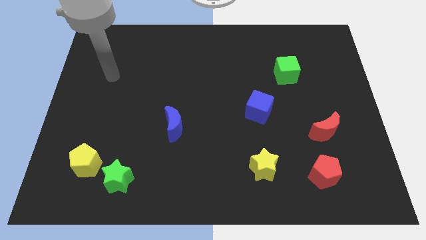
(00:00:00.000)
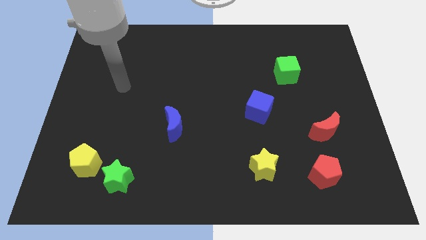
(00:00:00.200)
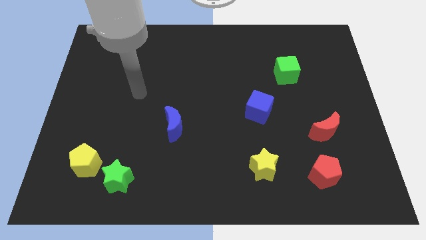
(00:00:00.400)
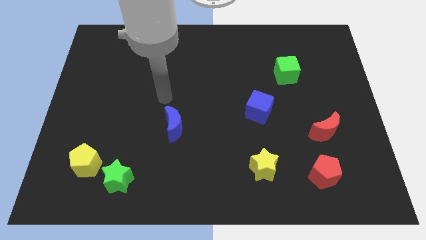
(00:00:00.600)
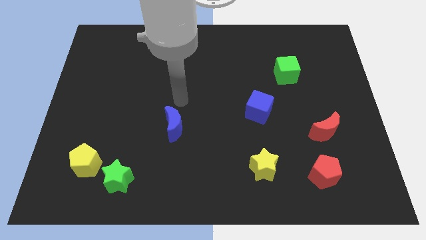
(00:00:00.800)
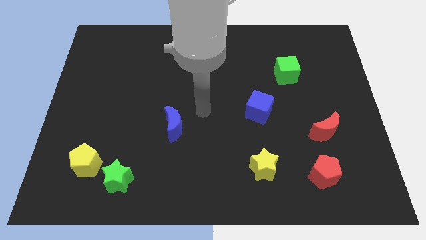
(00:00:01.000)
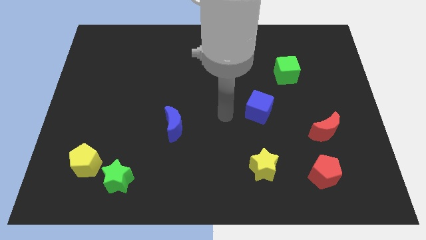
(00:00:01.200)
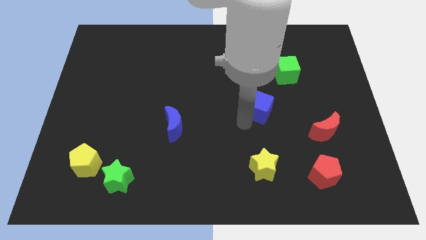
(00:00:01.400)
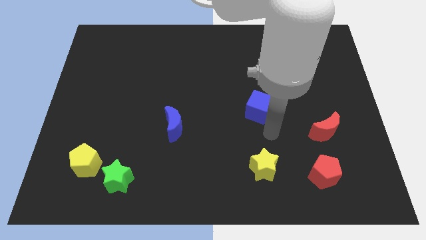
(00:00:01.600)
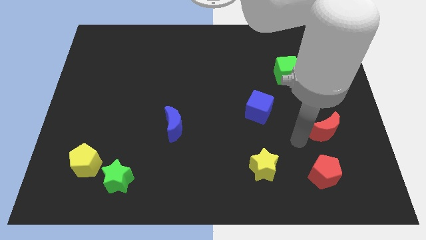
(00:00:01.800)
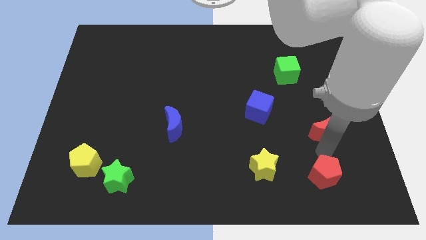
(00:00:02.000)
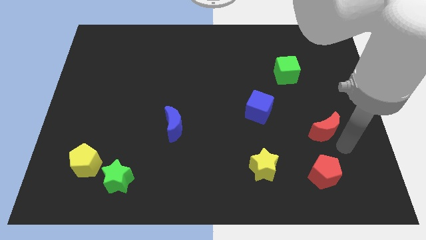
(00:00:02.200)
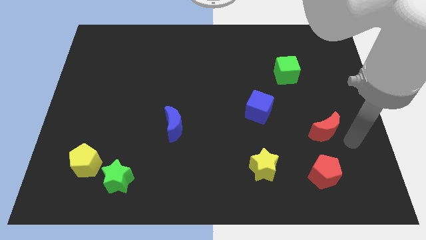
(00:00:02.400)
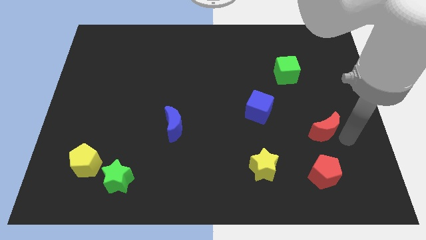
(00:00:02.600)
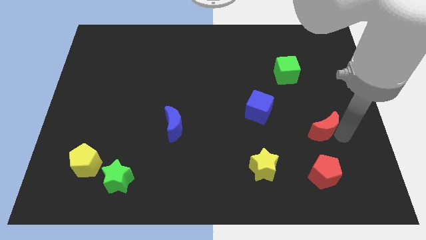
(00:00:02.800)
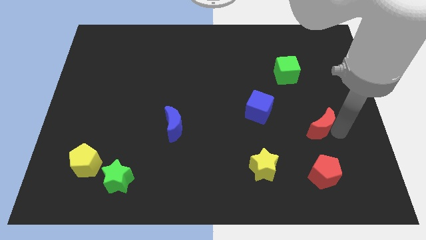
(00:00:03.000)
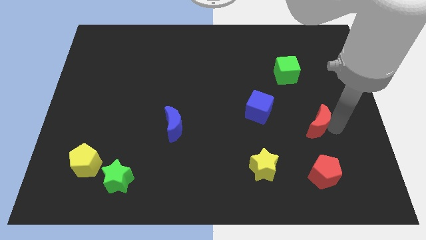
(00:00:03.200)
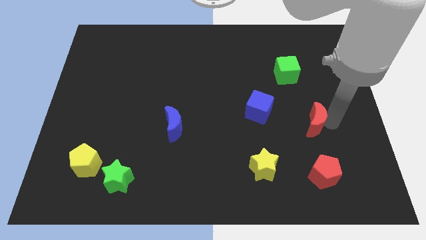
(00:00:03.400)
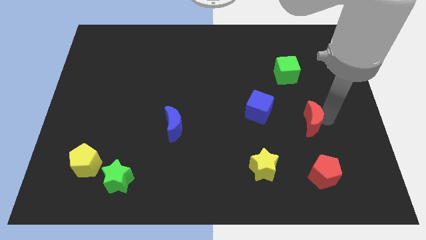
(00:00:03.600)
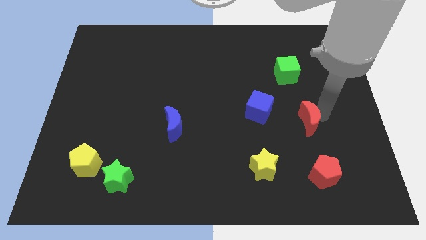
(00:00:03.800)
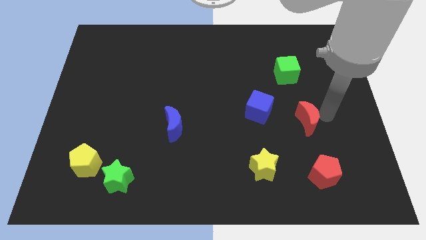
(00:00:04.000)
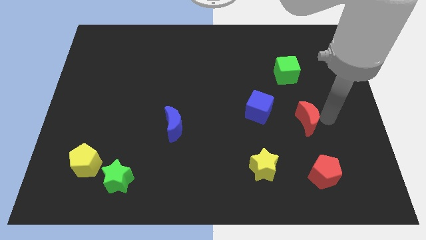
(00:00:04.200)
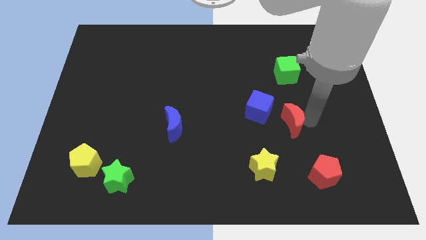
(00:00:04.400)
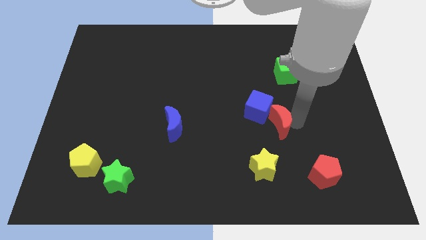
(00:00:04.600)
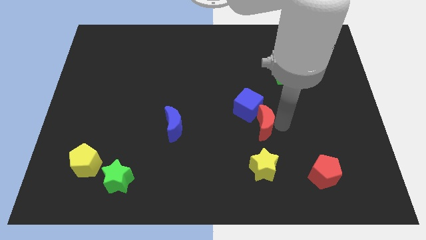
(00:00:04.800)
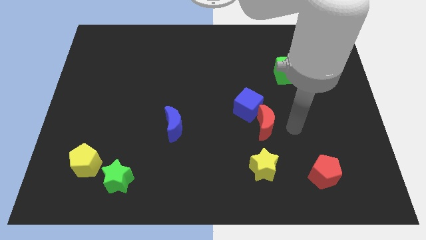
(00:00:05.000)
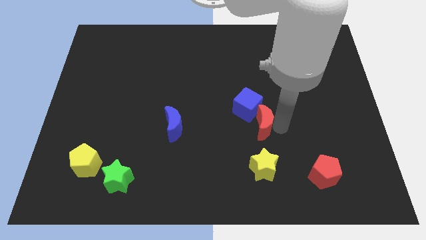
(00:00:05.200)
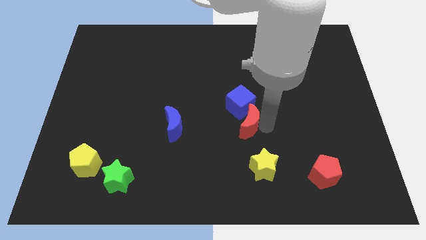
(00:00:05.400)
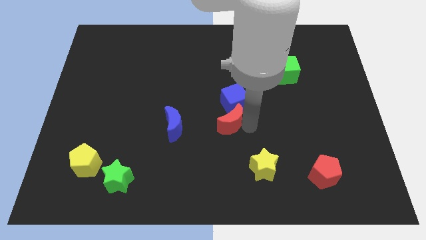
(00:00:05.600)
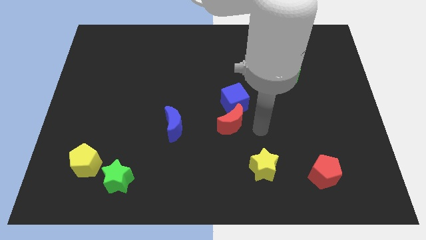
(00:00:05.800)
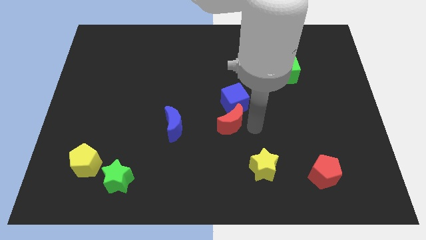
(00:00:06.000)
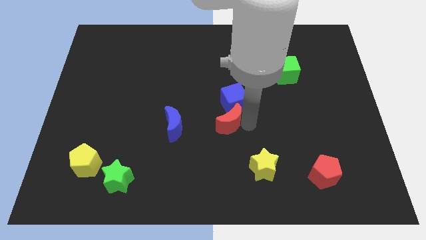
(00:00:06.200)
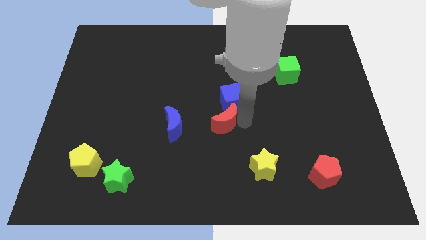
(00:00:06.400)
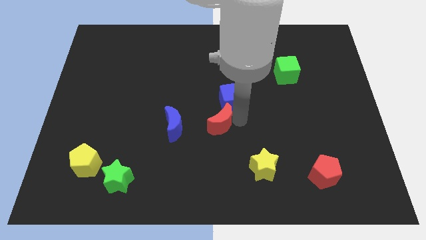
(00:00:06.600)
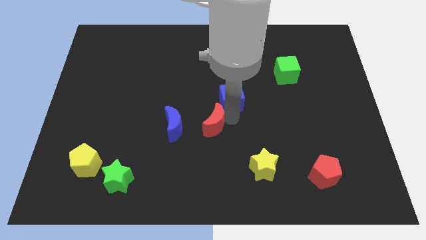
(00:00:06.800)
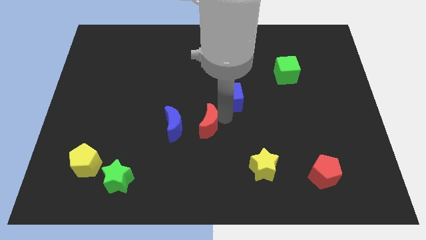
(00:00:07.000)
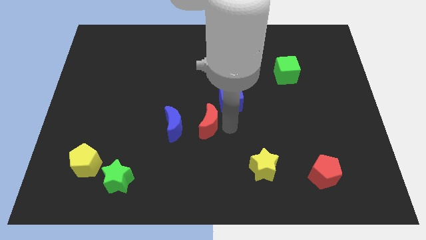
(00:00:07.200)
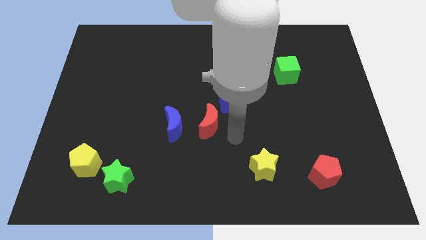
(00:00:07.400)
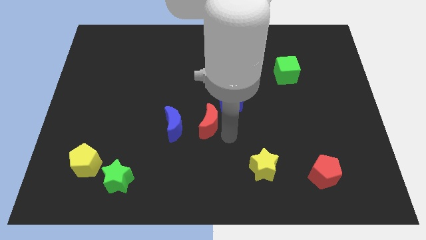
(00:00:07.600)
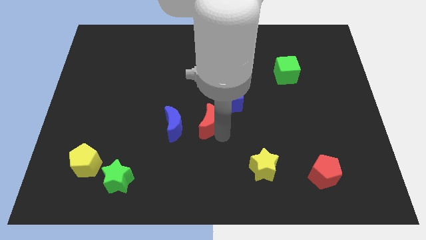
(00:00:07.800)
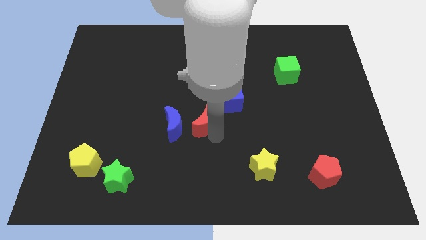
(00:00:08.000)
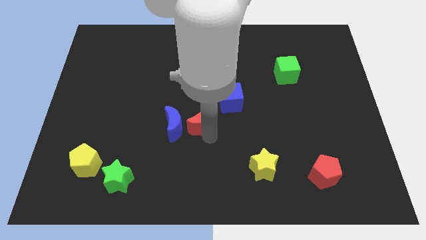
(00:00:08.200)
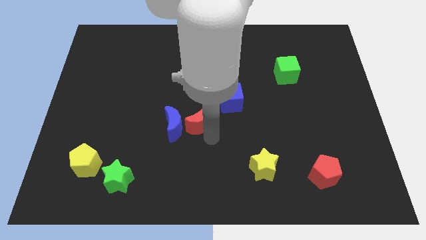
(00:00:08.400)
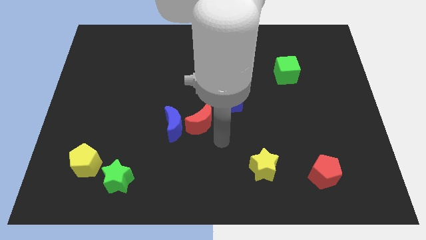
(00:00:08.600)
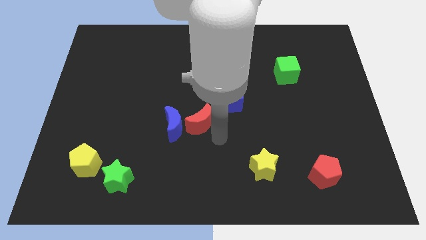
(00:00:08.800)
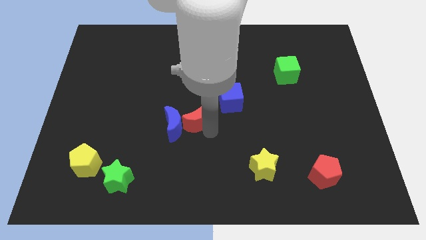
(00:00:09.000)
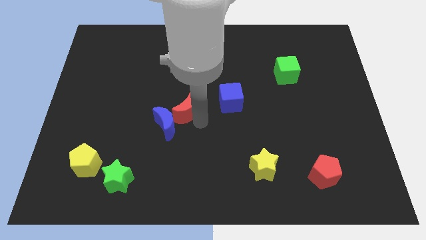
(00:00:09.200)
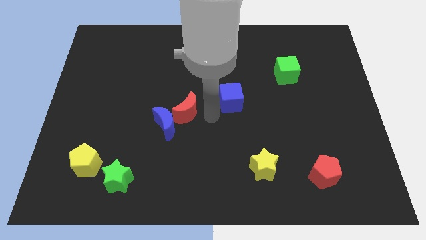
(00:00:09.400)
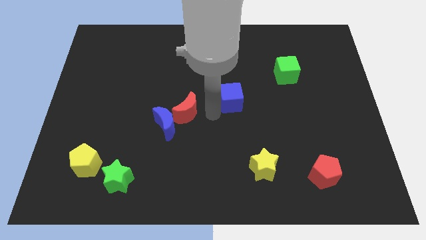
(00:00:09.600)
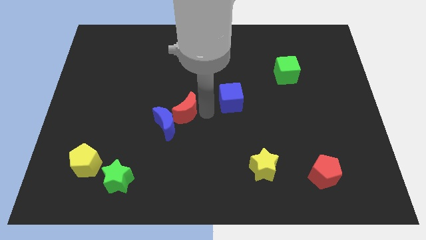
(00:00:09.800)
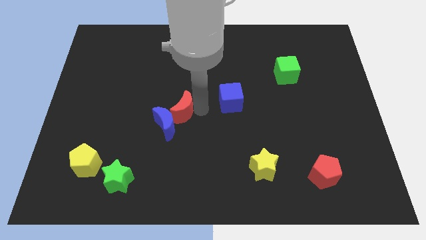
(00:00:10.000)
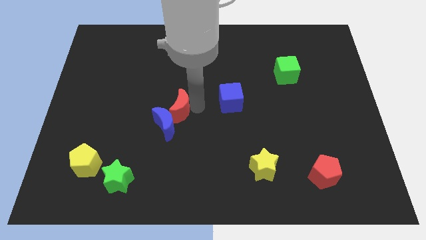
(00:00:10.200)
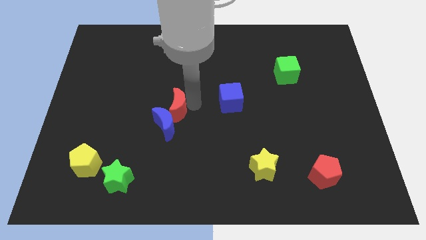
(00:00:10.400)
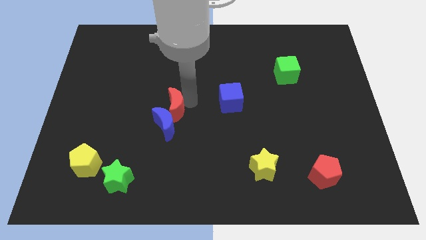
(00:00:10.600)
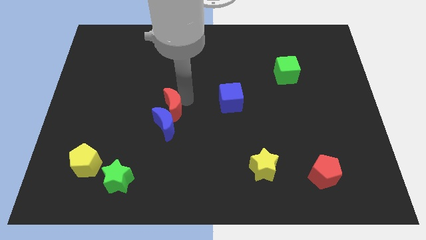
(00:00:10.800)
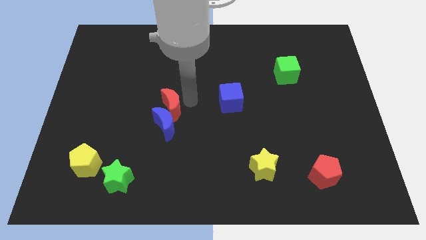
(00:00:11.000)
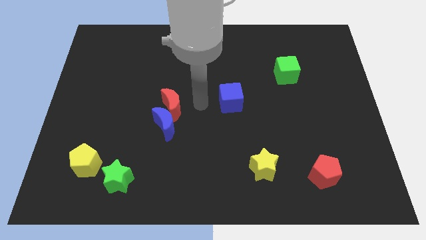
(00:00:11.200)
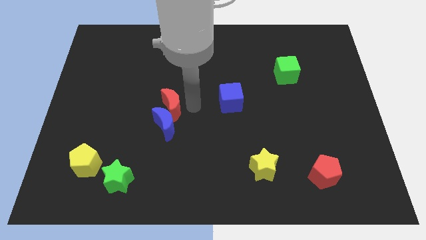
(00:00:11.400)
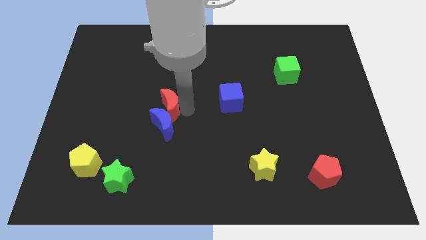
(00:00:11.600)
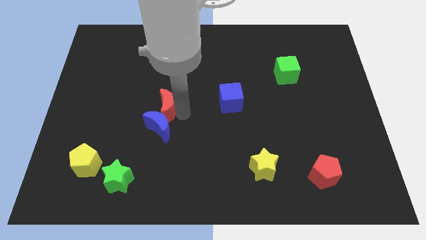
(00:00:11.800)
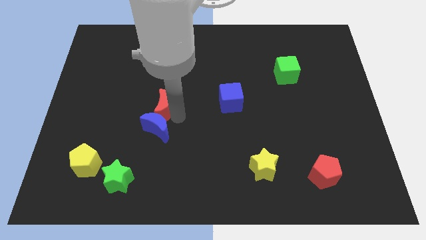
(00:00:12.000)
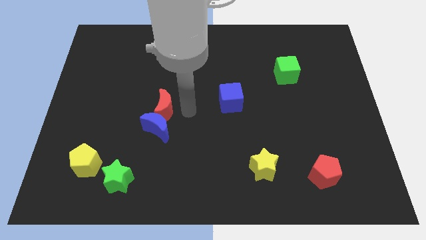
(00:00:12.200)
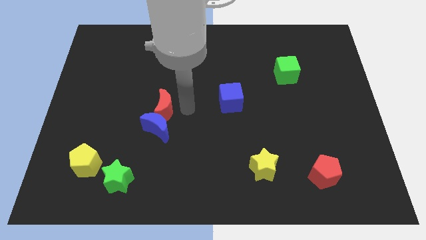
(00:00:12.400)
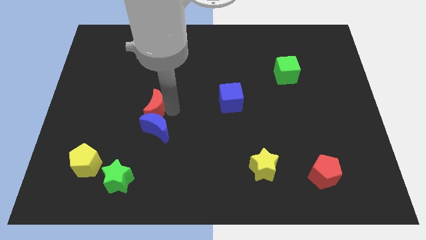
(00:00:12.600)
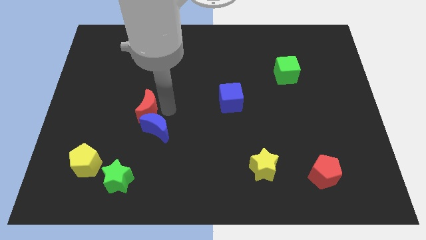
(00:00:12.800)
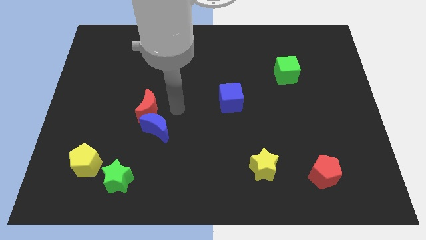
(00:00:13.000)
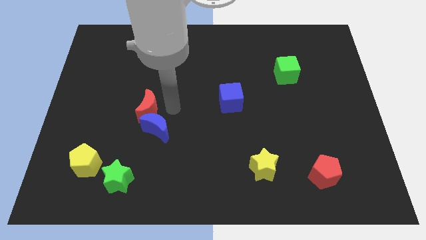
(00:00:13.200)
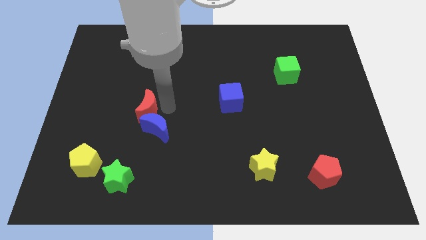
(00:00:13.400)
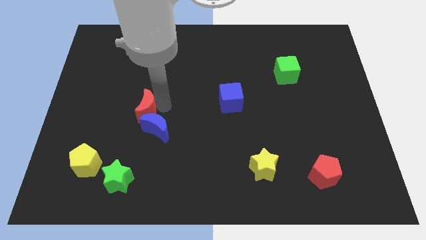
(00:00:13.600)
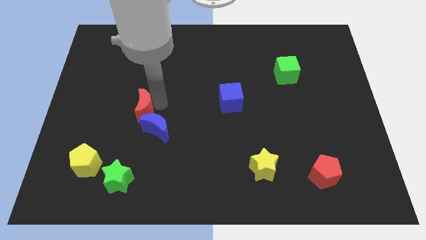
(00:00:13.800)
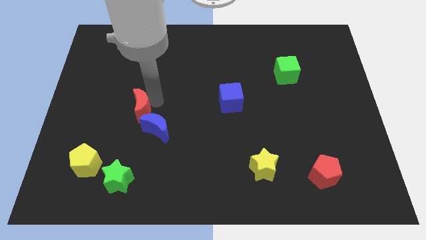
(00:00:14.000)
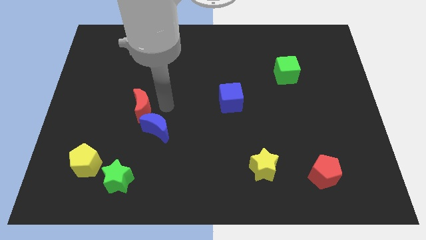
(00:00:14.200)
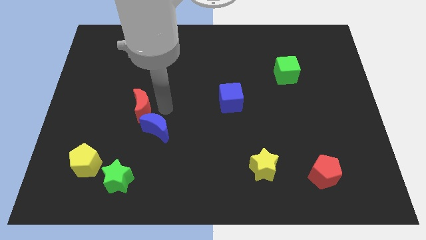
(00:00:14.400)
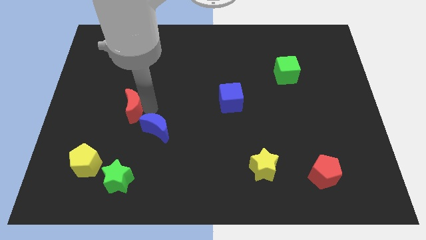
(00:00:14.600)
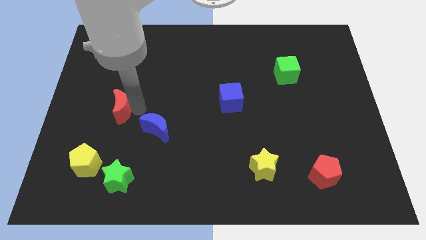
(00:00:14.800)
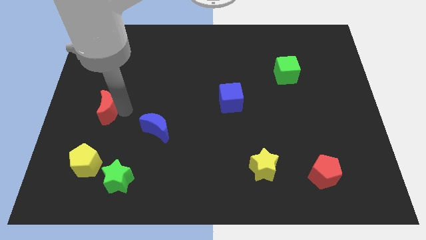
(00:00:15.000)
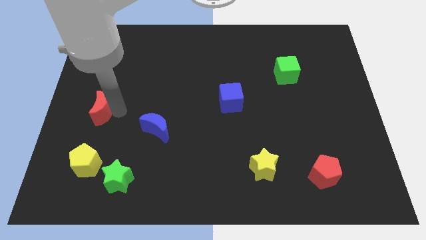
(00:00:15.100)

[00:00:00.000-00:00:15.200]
move the red moon to the left side of the board

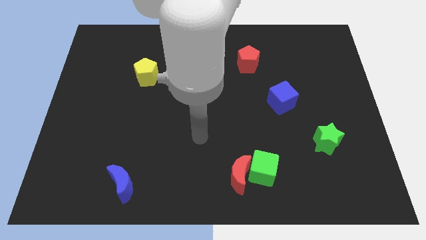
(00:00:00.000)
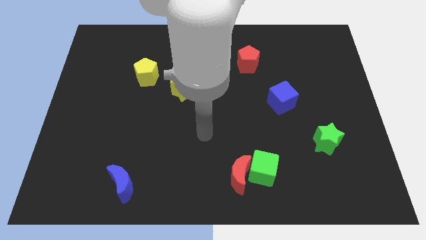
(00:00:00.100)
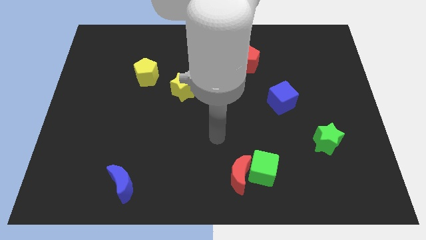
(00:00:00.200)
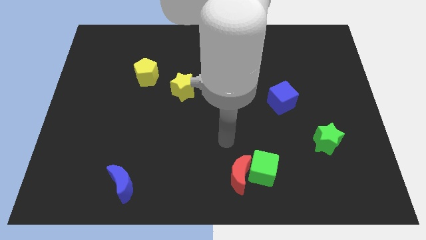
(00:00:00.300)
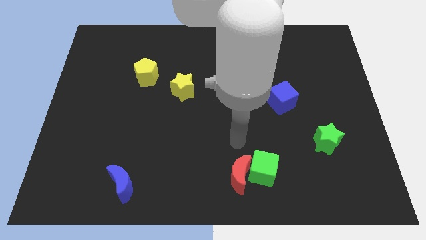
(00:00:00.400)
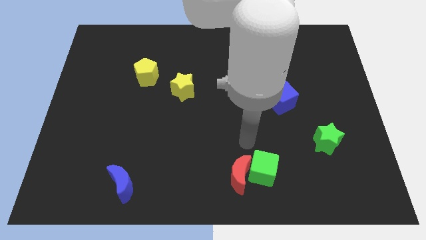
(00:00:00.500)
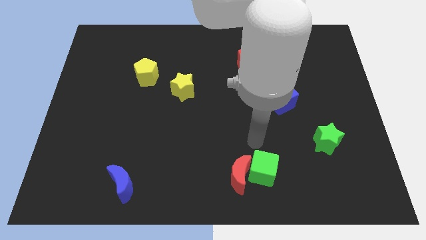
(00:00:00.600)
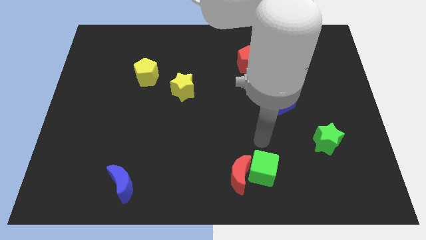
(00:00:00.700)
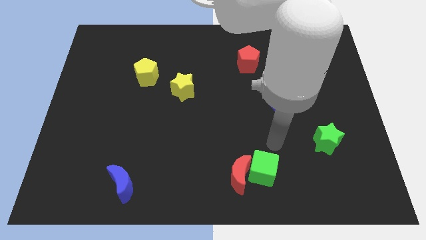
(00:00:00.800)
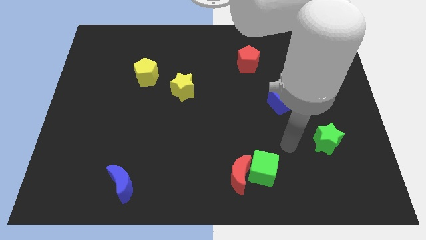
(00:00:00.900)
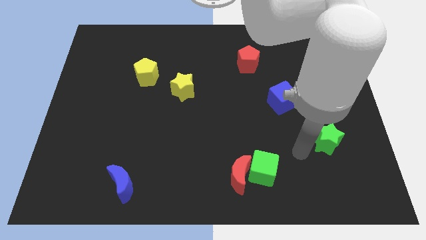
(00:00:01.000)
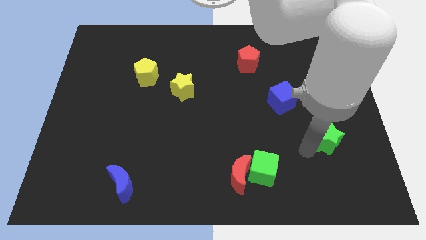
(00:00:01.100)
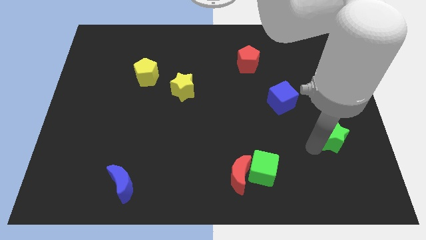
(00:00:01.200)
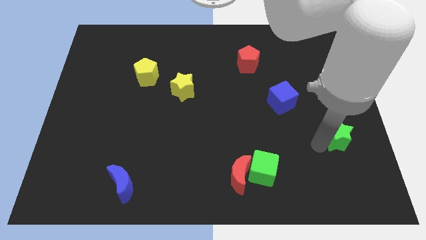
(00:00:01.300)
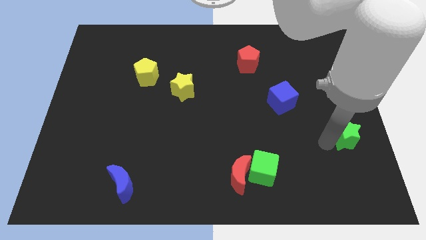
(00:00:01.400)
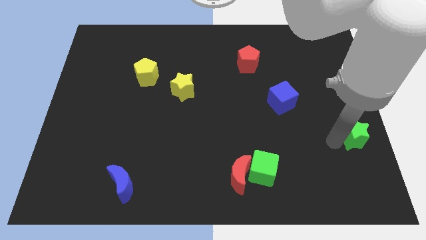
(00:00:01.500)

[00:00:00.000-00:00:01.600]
put the green star to the right side
